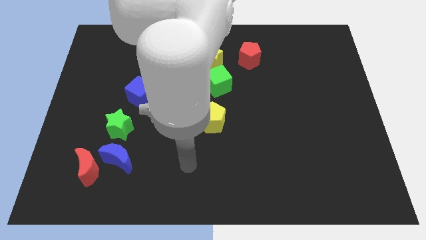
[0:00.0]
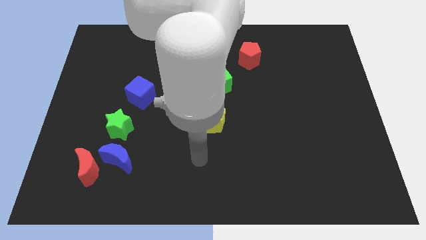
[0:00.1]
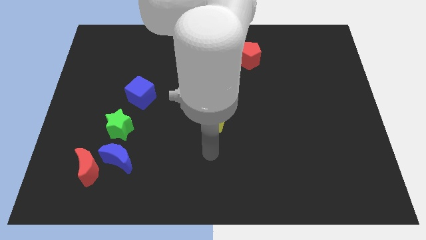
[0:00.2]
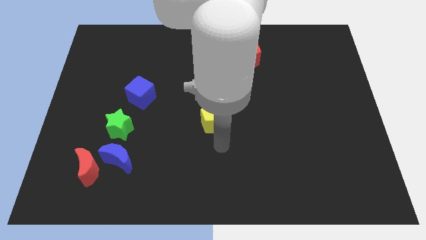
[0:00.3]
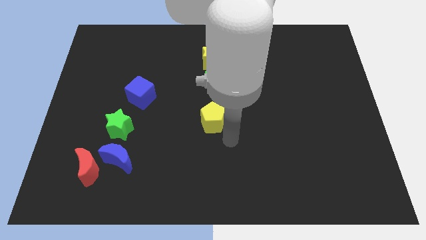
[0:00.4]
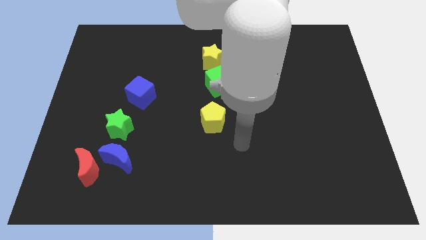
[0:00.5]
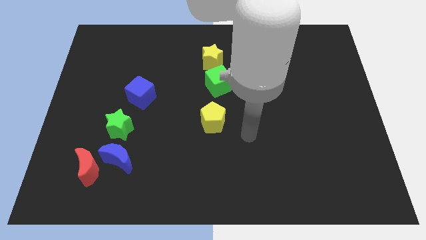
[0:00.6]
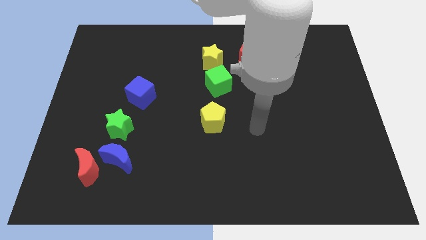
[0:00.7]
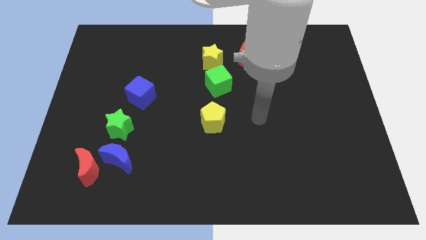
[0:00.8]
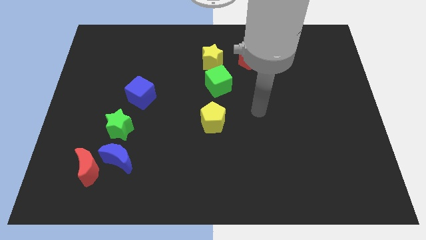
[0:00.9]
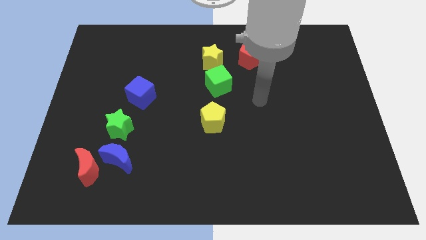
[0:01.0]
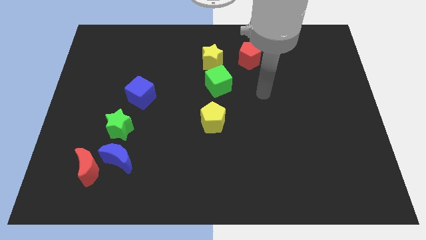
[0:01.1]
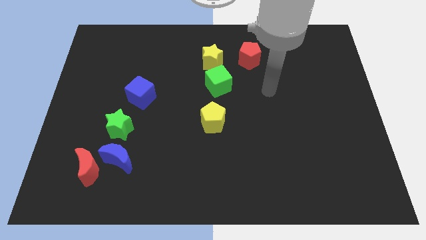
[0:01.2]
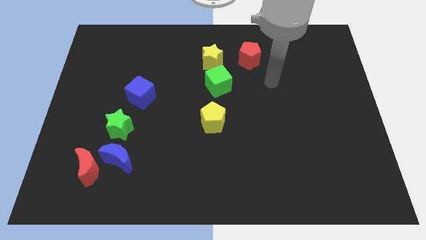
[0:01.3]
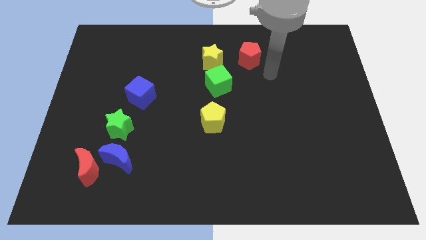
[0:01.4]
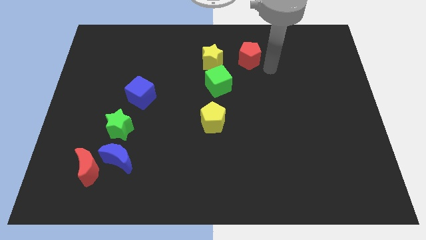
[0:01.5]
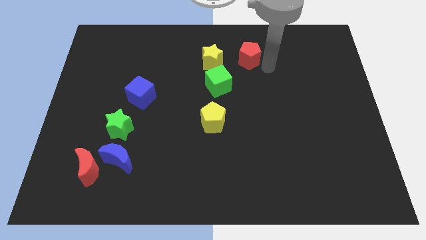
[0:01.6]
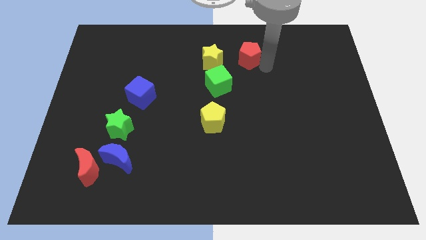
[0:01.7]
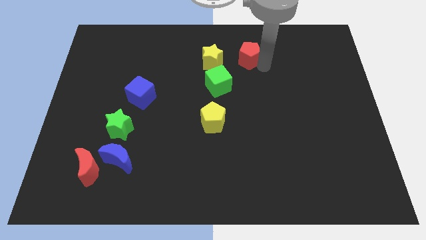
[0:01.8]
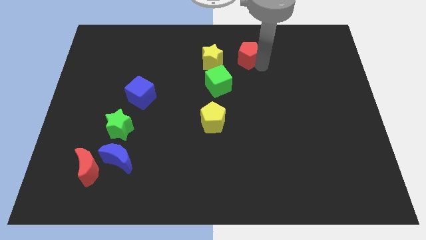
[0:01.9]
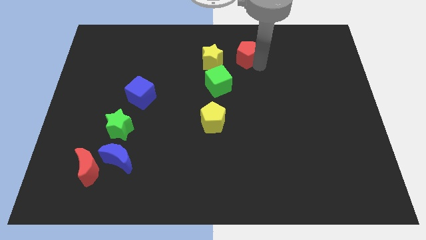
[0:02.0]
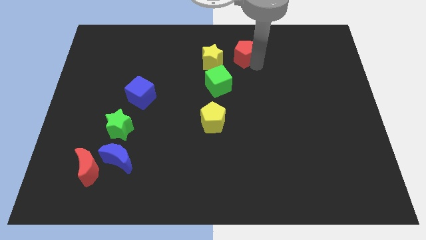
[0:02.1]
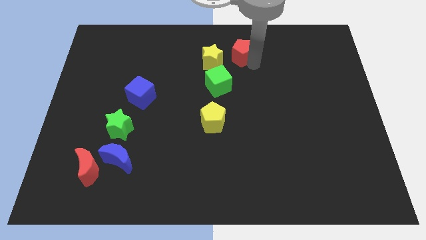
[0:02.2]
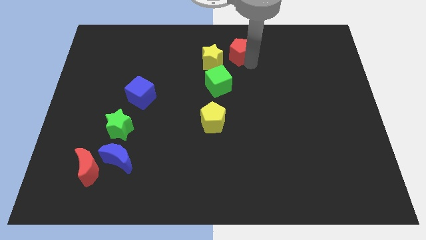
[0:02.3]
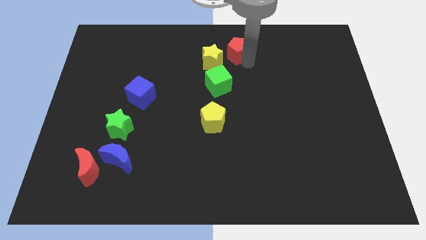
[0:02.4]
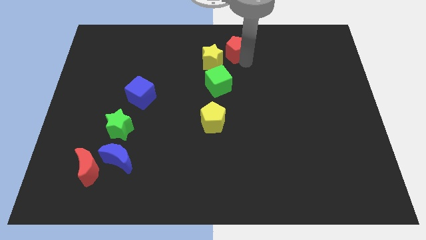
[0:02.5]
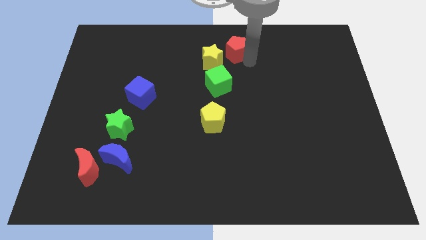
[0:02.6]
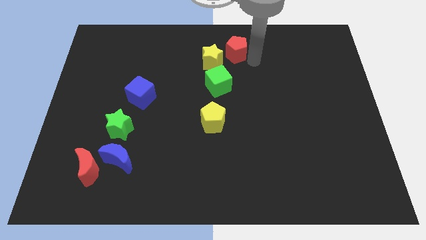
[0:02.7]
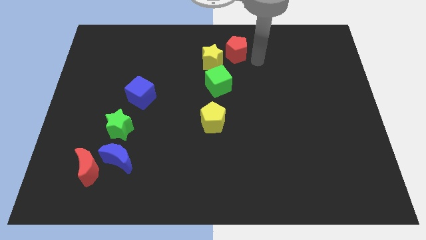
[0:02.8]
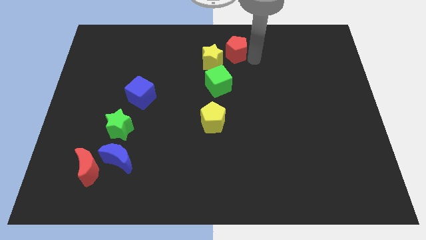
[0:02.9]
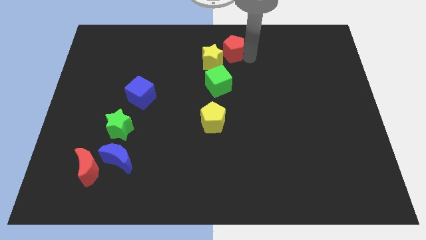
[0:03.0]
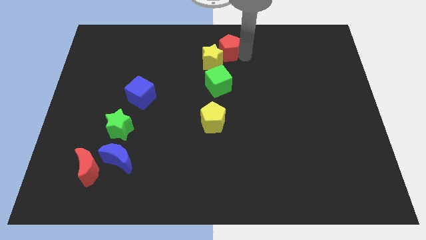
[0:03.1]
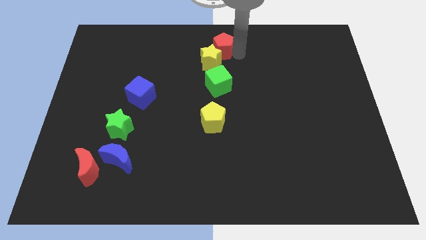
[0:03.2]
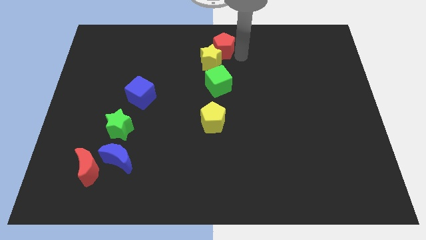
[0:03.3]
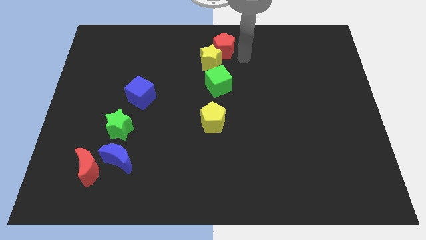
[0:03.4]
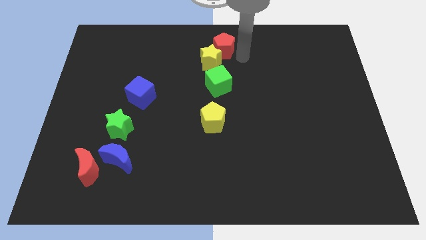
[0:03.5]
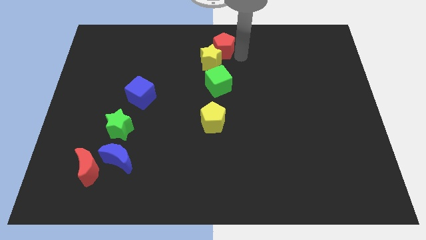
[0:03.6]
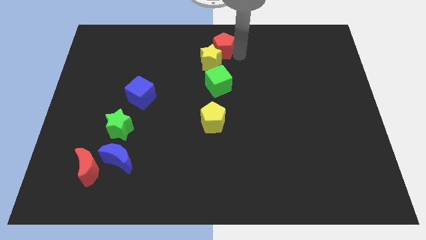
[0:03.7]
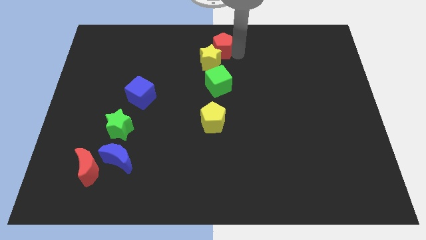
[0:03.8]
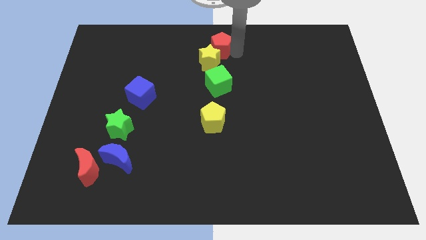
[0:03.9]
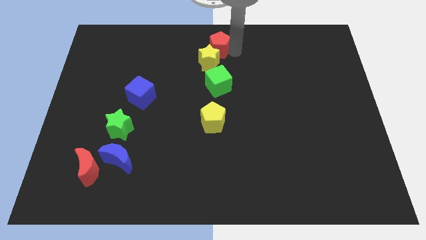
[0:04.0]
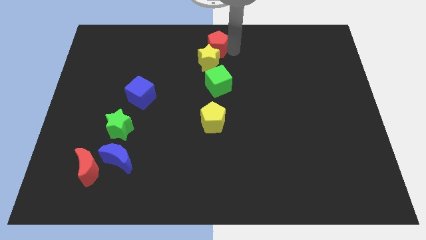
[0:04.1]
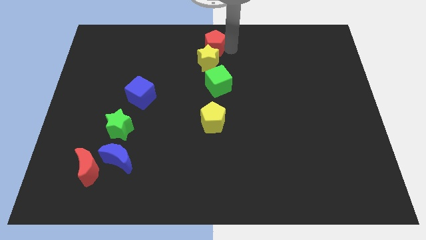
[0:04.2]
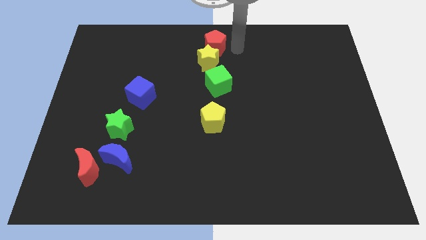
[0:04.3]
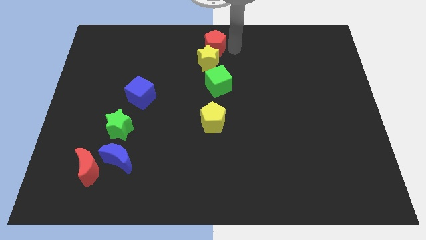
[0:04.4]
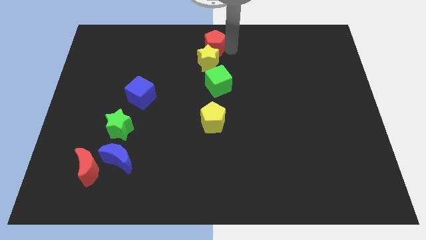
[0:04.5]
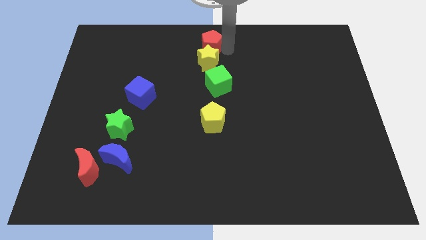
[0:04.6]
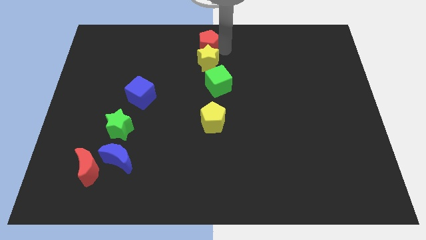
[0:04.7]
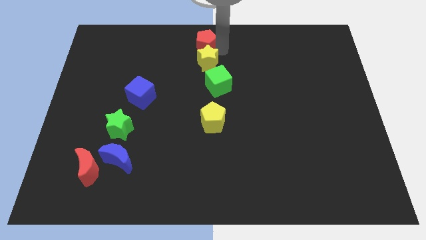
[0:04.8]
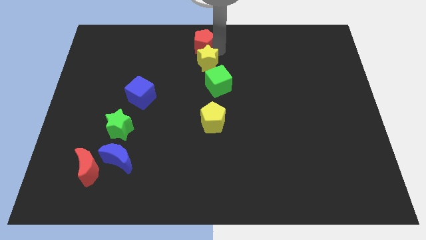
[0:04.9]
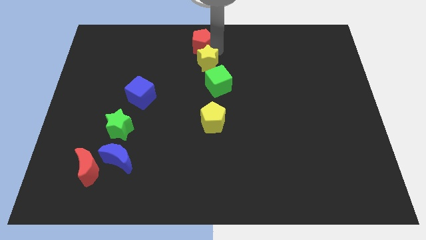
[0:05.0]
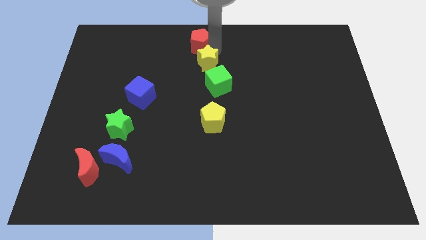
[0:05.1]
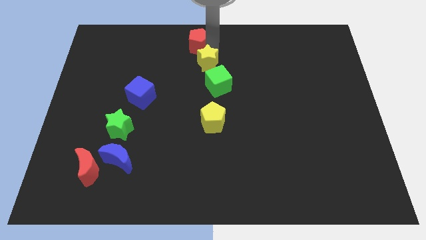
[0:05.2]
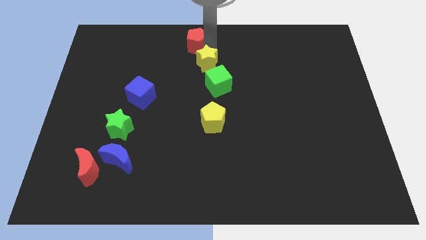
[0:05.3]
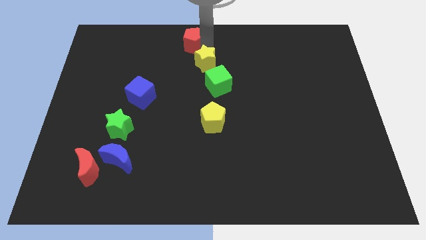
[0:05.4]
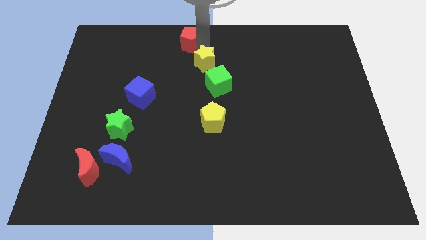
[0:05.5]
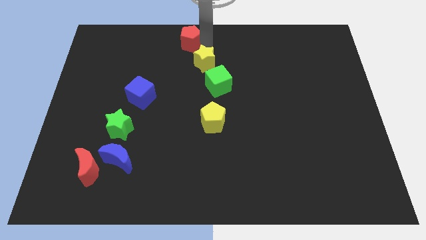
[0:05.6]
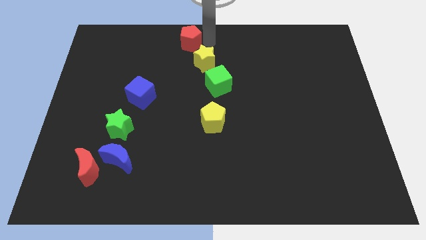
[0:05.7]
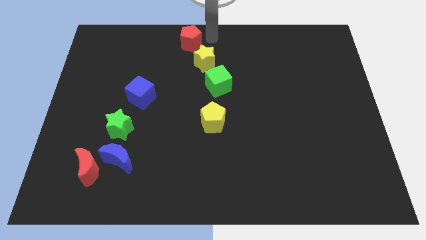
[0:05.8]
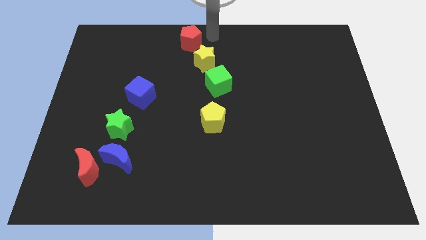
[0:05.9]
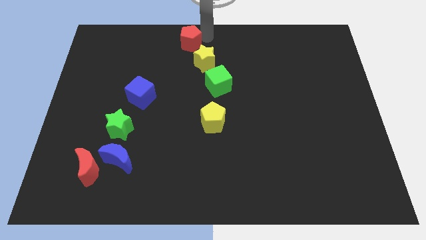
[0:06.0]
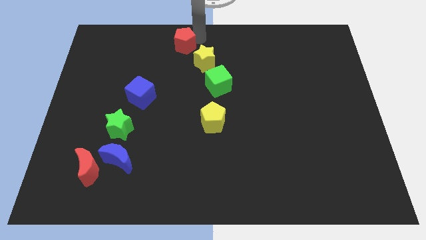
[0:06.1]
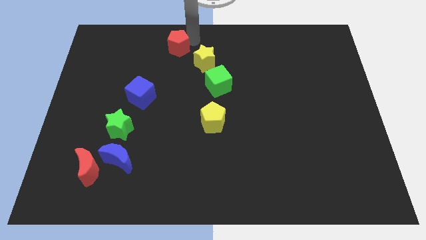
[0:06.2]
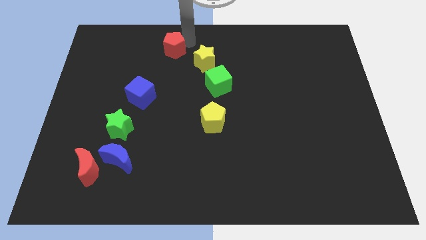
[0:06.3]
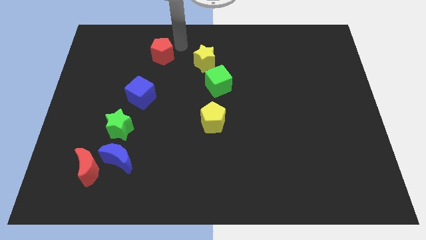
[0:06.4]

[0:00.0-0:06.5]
slide the red pentagon to the left

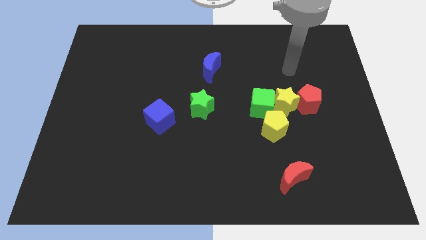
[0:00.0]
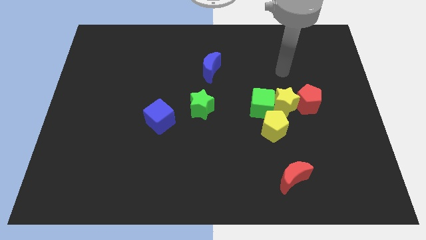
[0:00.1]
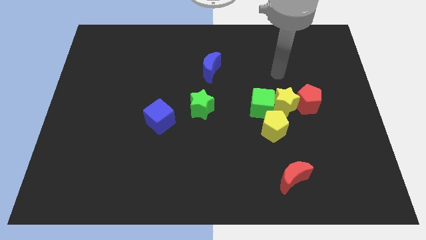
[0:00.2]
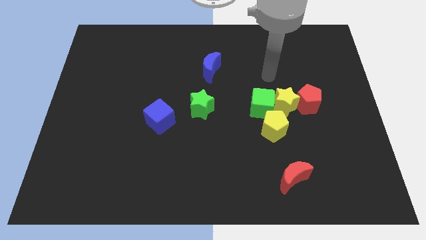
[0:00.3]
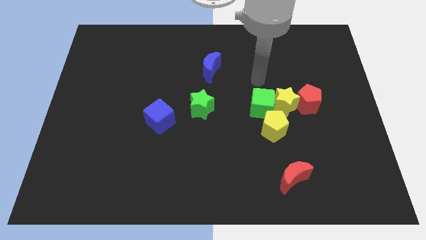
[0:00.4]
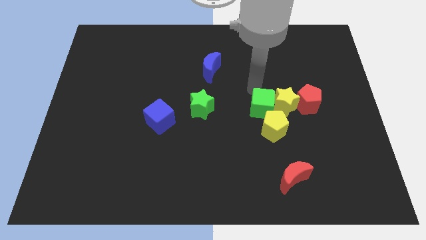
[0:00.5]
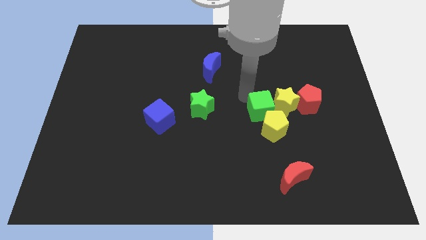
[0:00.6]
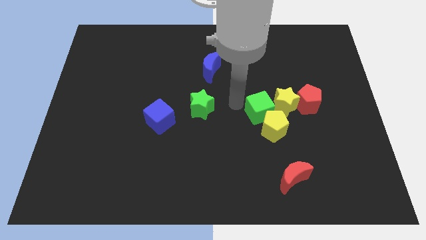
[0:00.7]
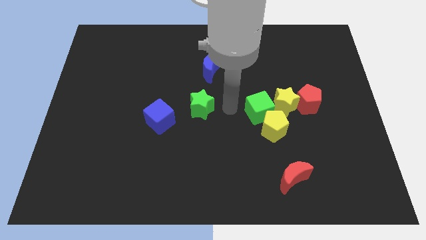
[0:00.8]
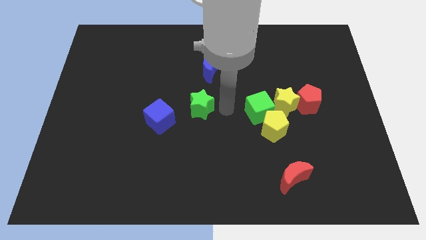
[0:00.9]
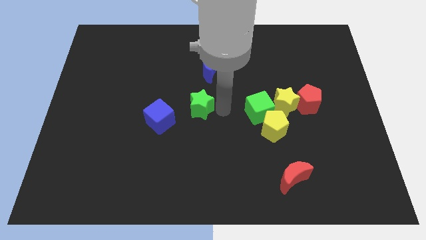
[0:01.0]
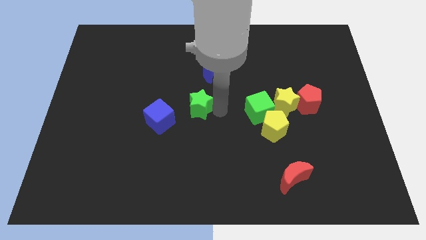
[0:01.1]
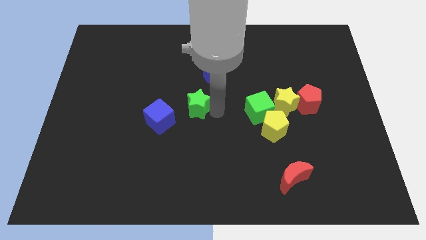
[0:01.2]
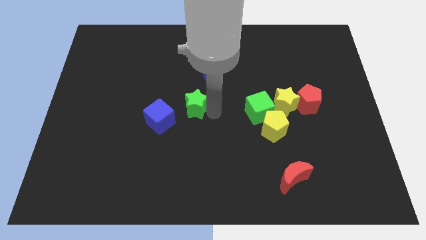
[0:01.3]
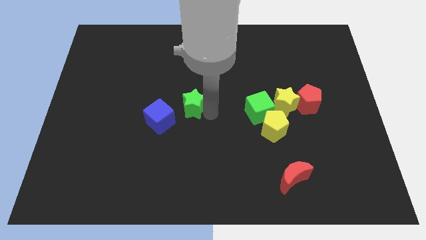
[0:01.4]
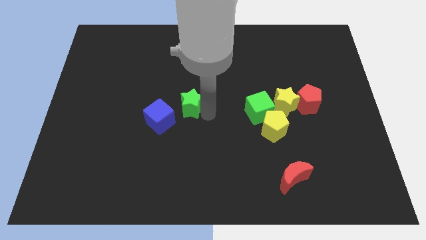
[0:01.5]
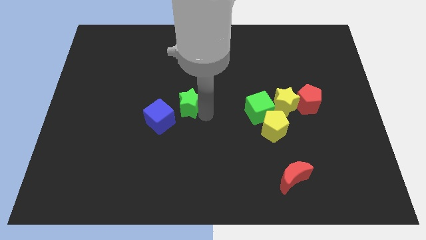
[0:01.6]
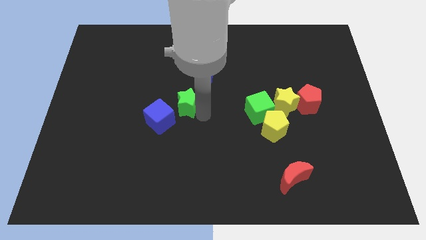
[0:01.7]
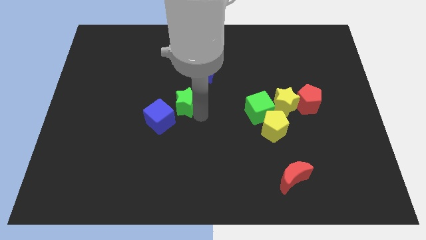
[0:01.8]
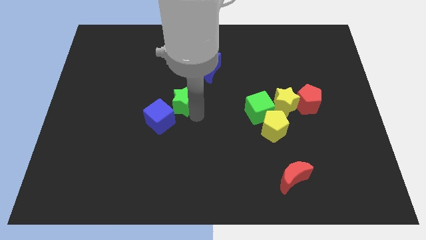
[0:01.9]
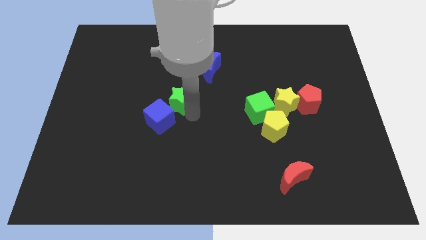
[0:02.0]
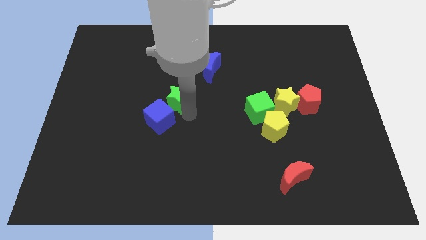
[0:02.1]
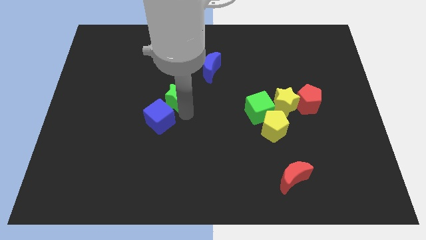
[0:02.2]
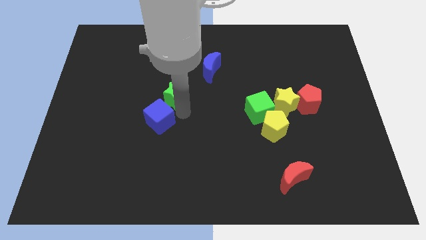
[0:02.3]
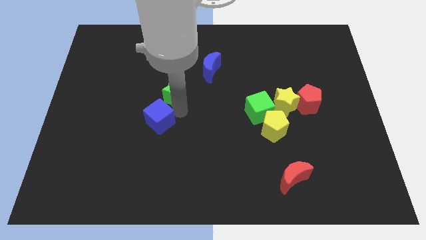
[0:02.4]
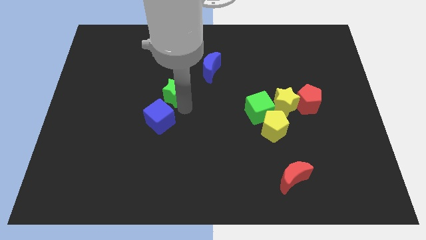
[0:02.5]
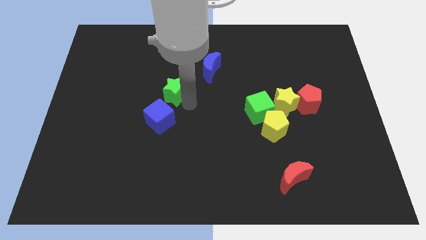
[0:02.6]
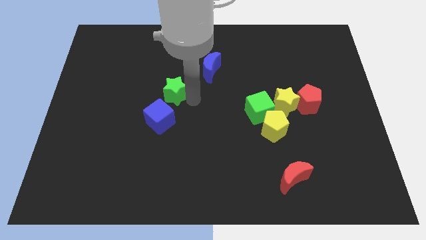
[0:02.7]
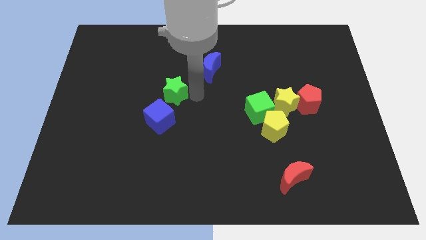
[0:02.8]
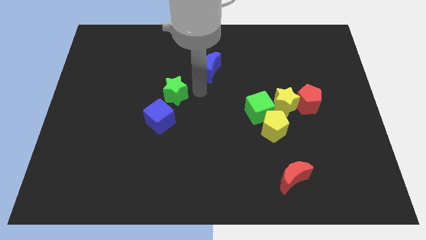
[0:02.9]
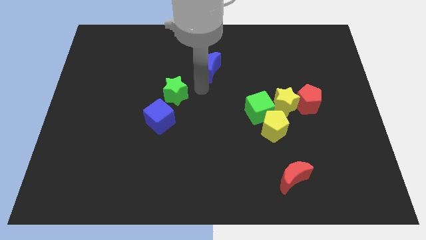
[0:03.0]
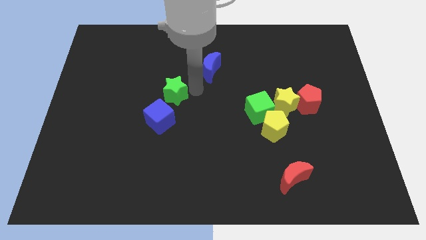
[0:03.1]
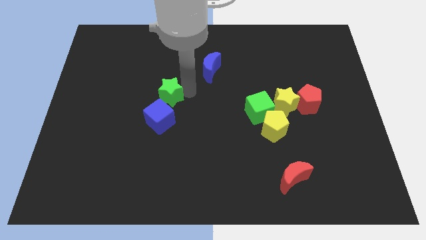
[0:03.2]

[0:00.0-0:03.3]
slightly push the green star to the left
